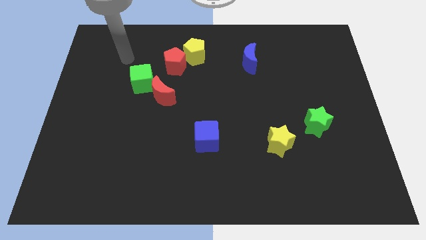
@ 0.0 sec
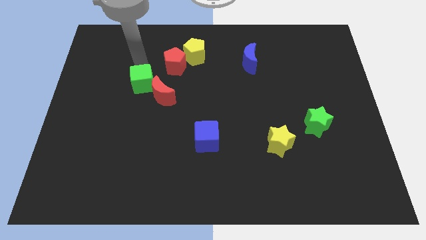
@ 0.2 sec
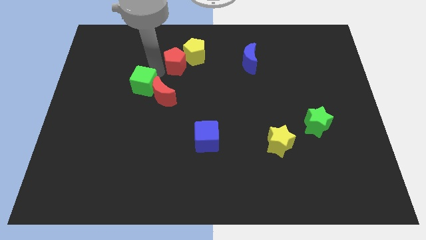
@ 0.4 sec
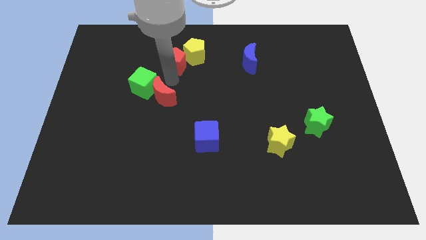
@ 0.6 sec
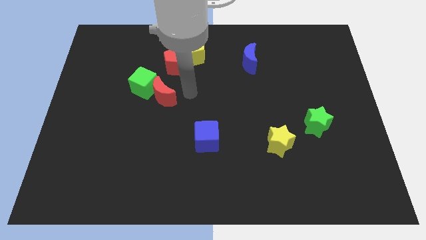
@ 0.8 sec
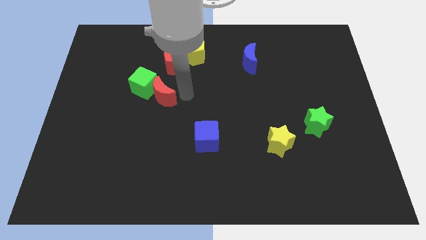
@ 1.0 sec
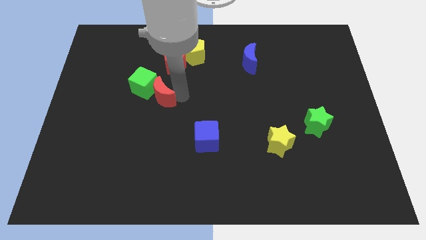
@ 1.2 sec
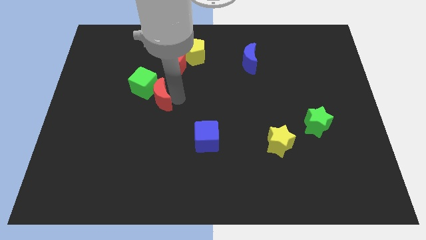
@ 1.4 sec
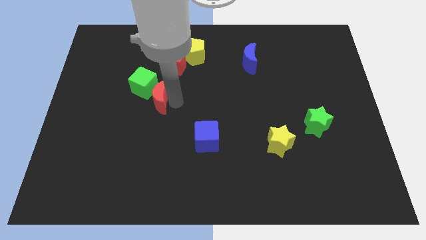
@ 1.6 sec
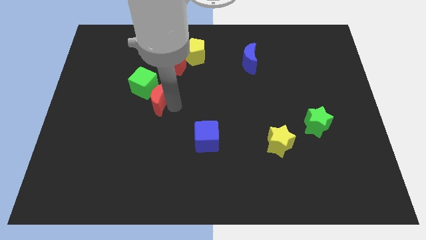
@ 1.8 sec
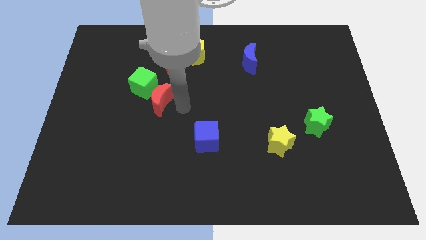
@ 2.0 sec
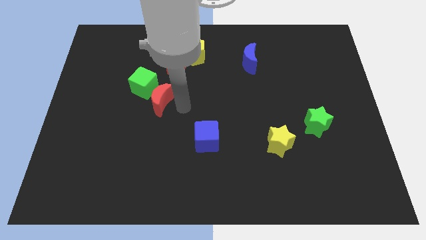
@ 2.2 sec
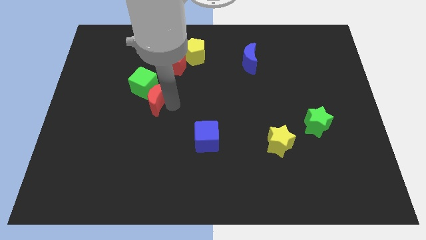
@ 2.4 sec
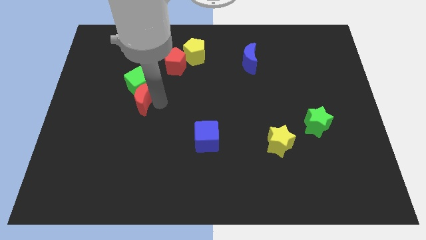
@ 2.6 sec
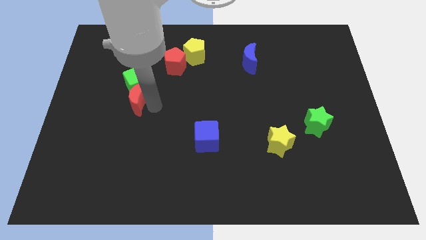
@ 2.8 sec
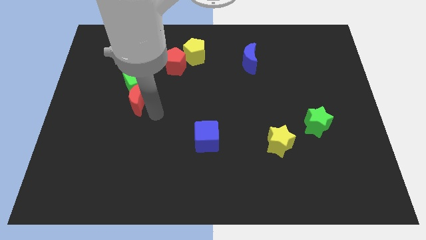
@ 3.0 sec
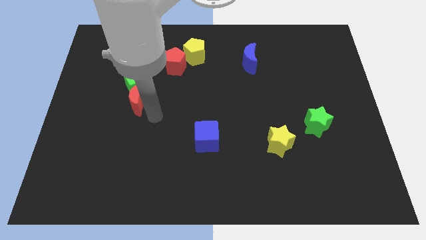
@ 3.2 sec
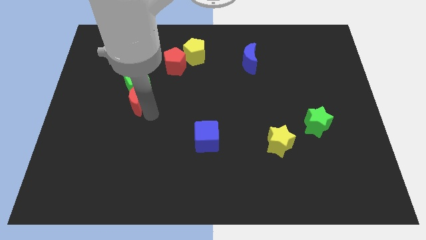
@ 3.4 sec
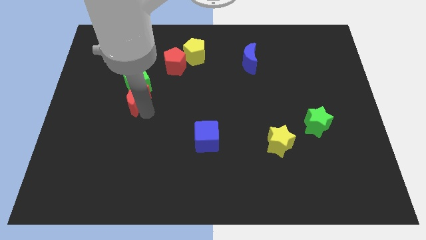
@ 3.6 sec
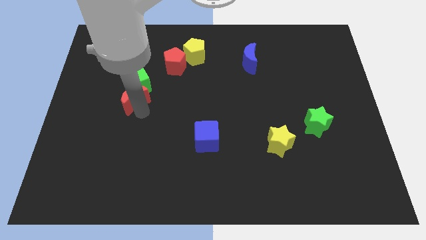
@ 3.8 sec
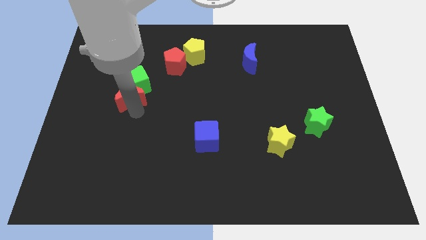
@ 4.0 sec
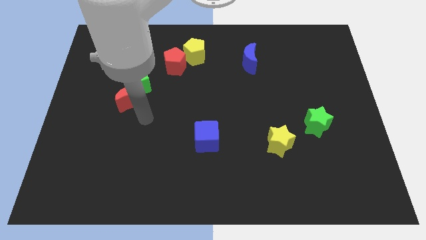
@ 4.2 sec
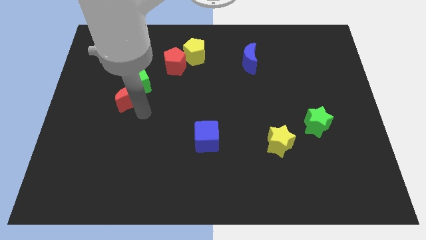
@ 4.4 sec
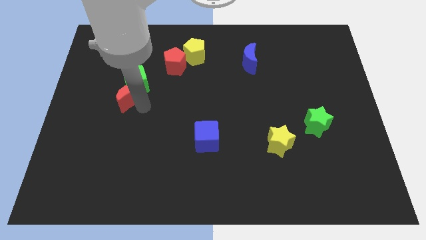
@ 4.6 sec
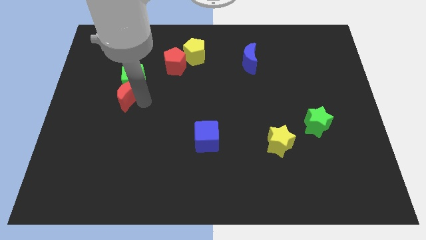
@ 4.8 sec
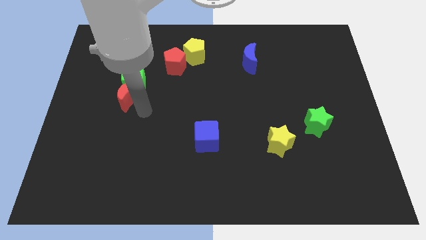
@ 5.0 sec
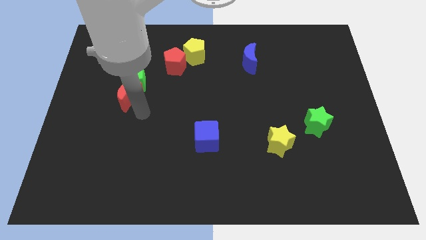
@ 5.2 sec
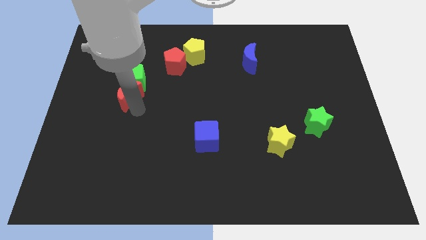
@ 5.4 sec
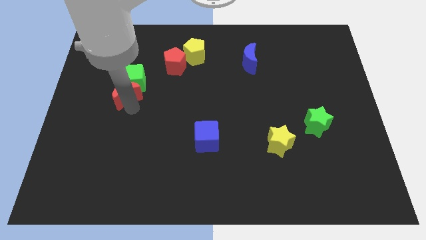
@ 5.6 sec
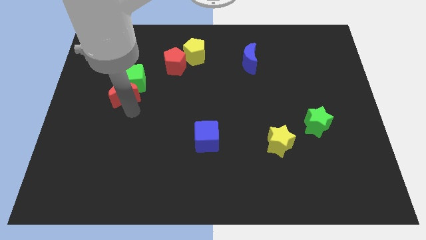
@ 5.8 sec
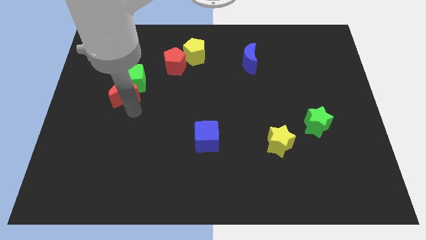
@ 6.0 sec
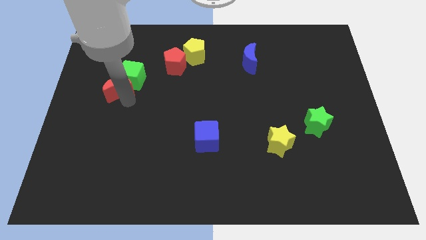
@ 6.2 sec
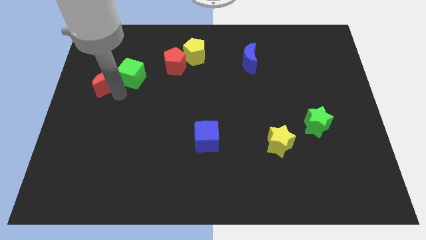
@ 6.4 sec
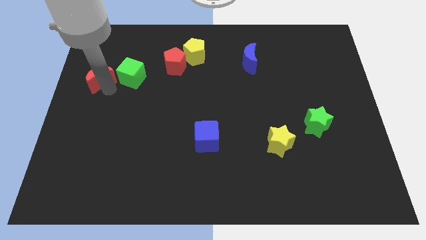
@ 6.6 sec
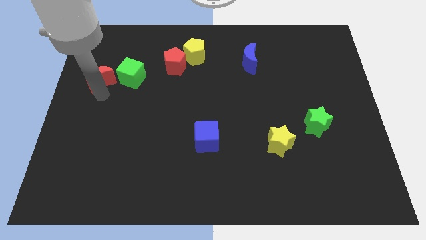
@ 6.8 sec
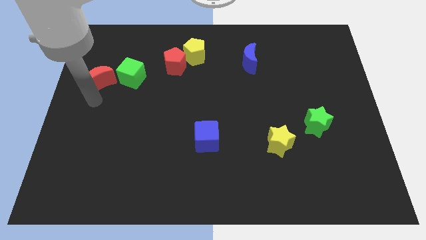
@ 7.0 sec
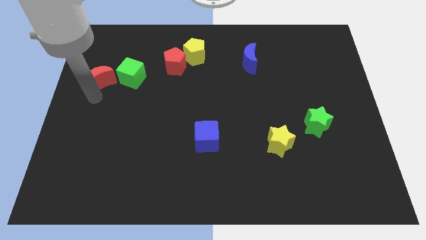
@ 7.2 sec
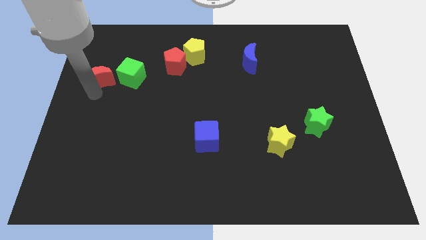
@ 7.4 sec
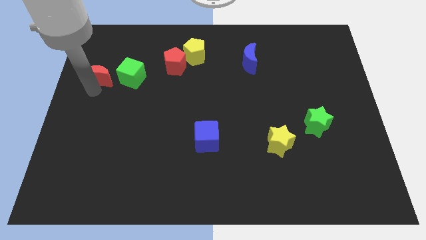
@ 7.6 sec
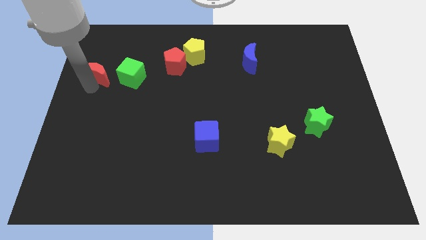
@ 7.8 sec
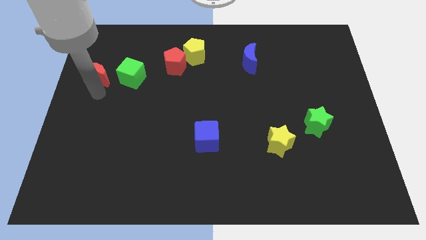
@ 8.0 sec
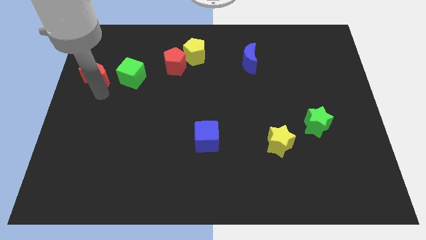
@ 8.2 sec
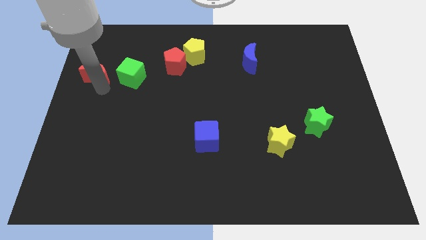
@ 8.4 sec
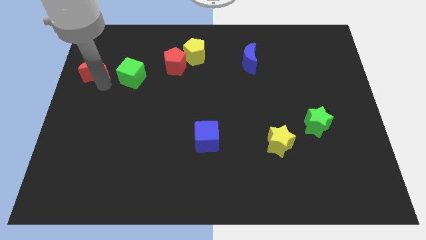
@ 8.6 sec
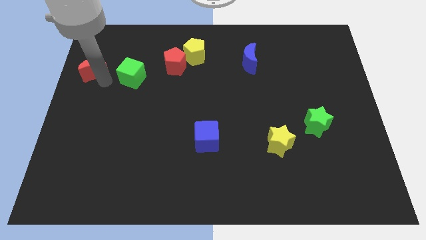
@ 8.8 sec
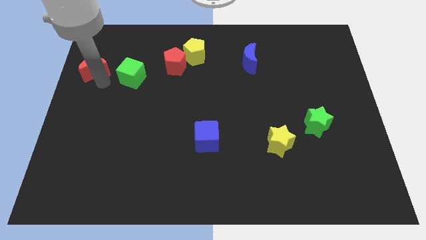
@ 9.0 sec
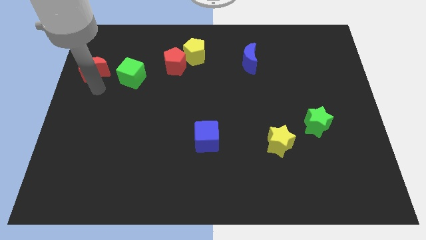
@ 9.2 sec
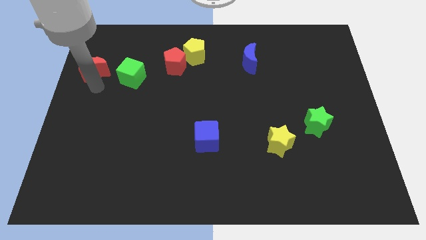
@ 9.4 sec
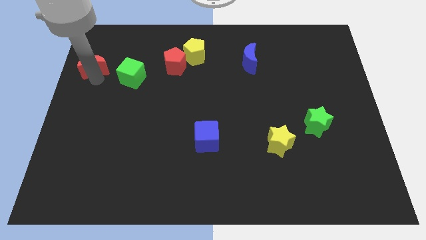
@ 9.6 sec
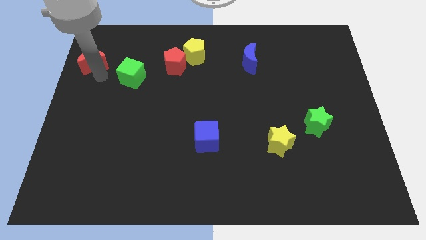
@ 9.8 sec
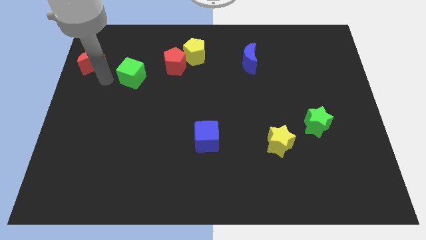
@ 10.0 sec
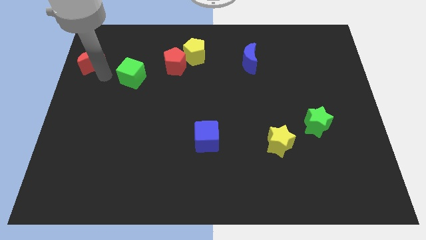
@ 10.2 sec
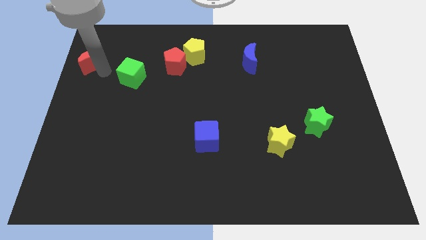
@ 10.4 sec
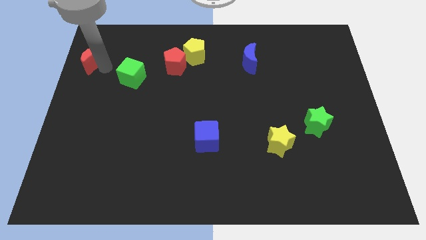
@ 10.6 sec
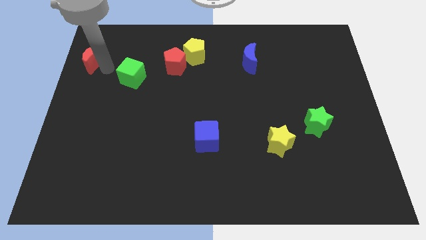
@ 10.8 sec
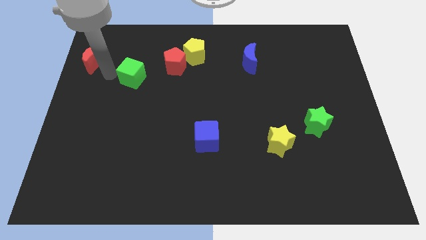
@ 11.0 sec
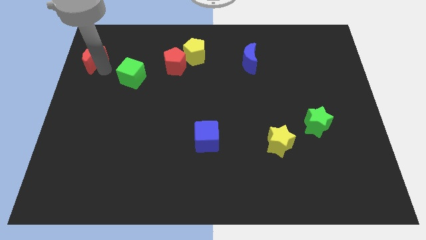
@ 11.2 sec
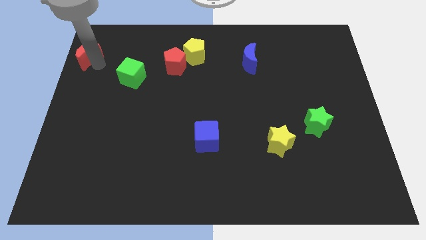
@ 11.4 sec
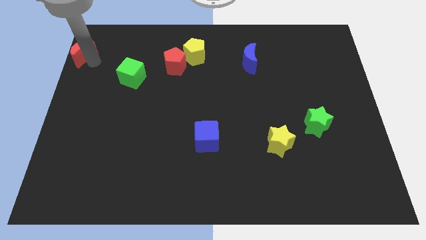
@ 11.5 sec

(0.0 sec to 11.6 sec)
put the red moon to the upper left corner

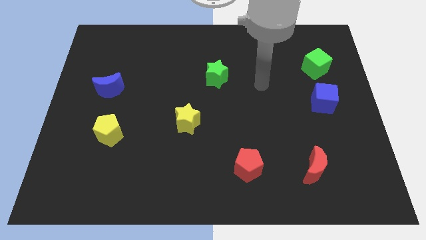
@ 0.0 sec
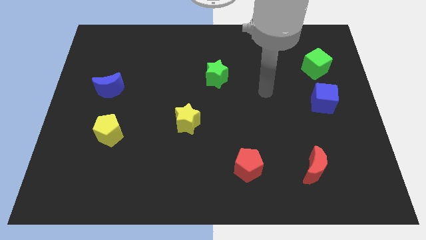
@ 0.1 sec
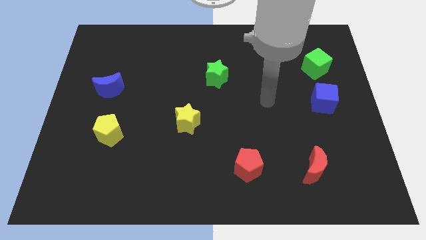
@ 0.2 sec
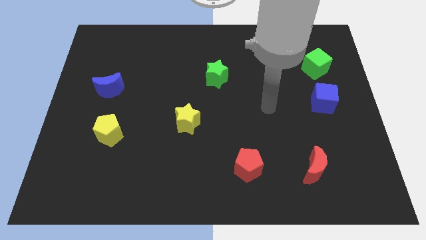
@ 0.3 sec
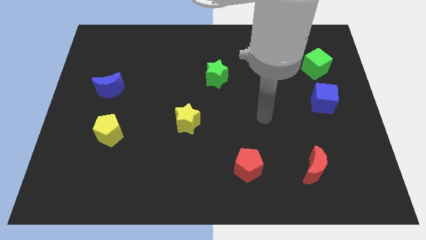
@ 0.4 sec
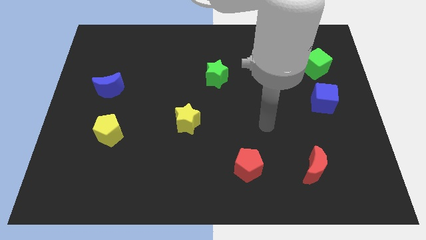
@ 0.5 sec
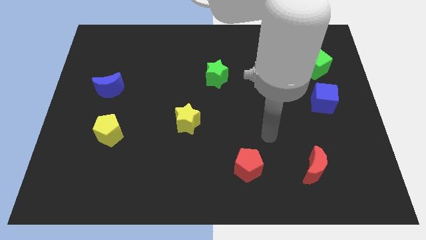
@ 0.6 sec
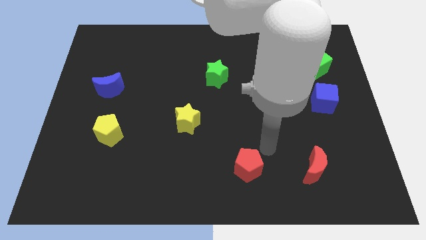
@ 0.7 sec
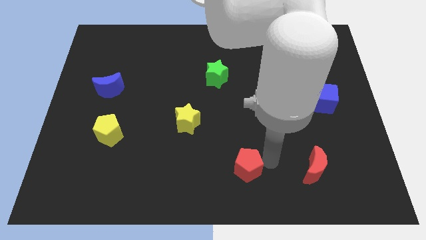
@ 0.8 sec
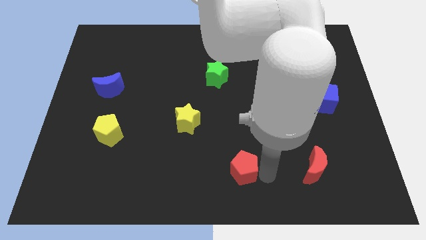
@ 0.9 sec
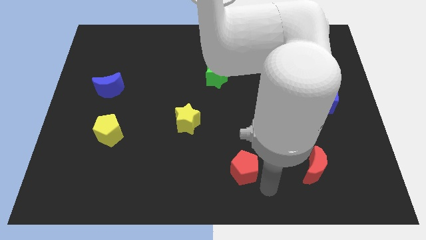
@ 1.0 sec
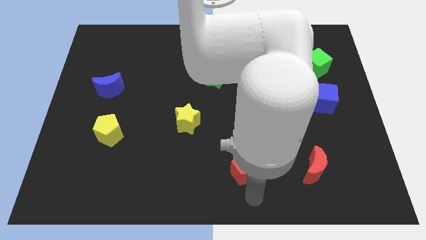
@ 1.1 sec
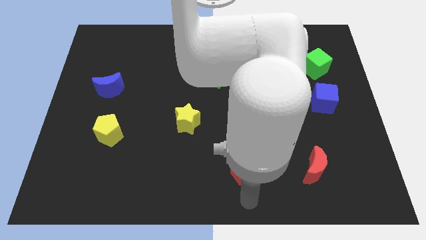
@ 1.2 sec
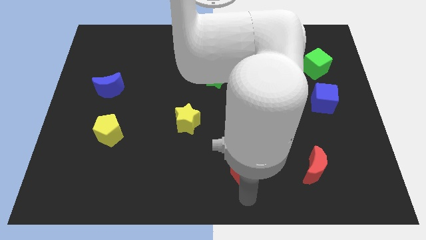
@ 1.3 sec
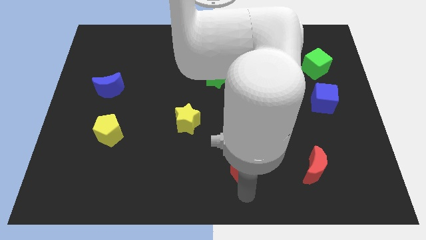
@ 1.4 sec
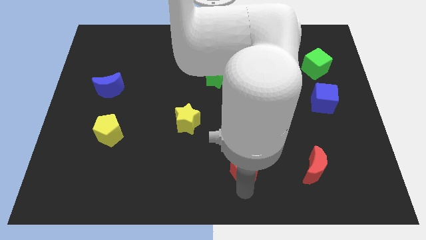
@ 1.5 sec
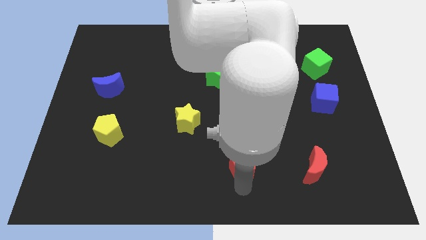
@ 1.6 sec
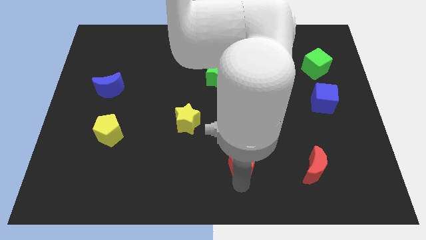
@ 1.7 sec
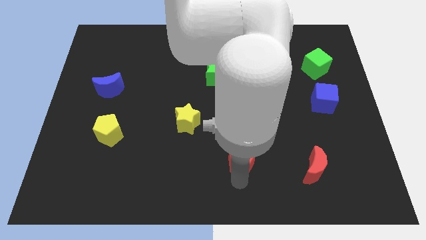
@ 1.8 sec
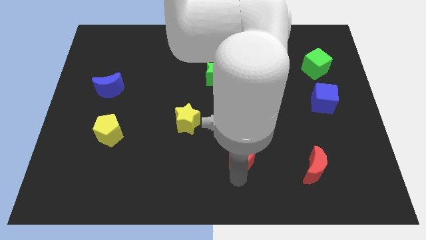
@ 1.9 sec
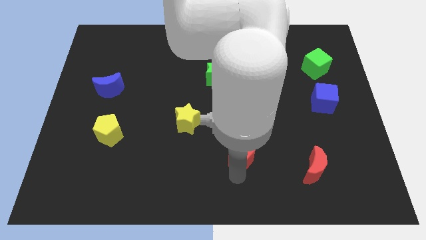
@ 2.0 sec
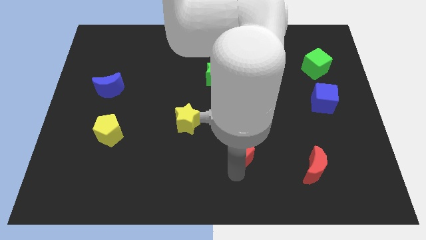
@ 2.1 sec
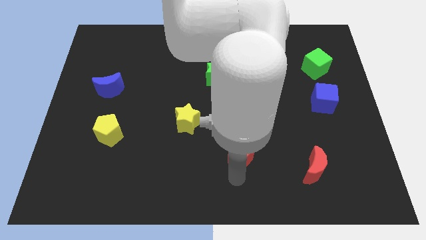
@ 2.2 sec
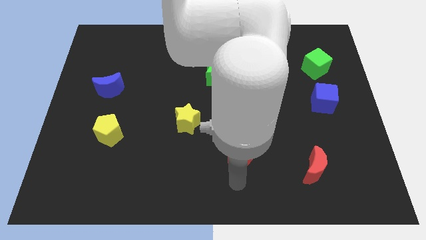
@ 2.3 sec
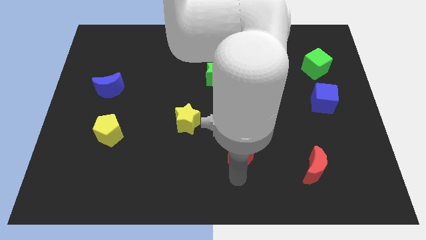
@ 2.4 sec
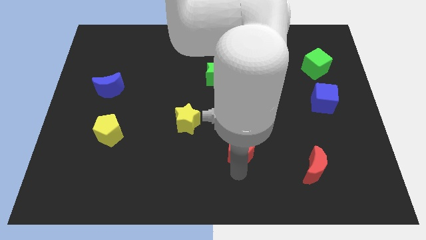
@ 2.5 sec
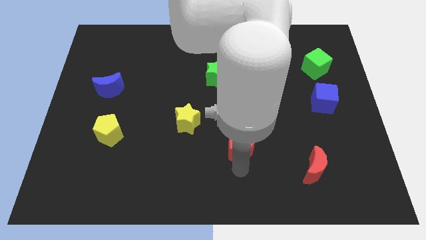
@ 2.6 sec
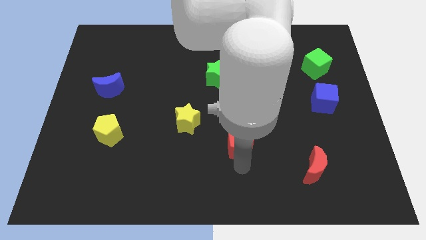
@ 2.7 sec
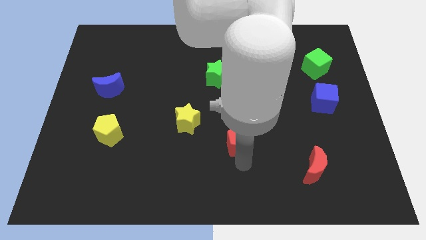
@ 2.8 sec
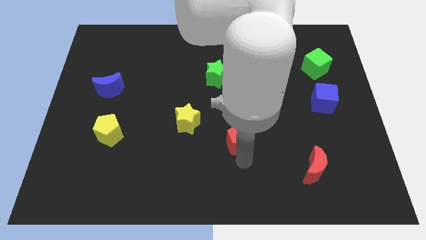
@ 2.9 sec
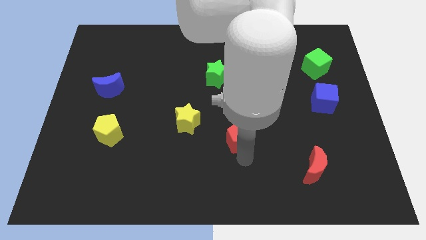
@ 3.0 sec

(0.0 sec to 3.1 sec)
slide the red pentagon to the center of the board
